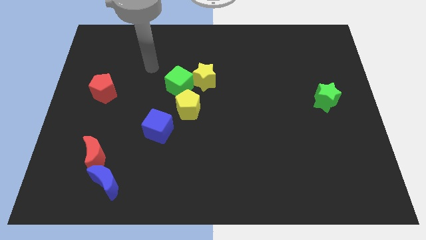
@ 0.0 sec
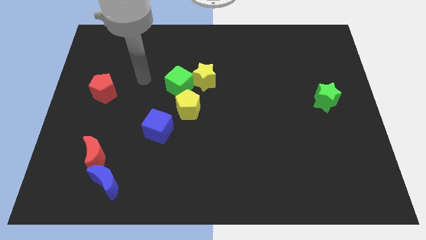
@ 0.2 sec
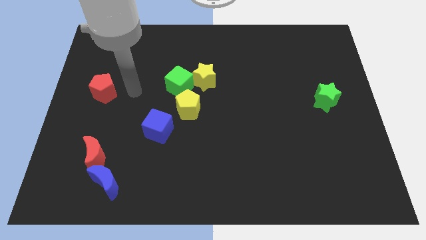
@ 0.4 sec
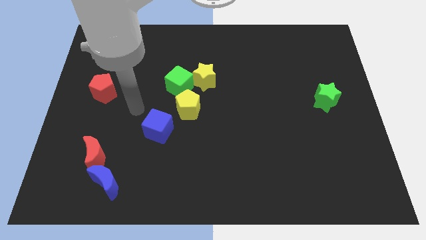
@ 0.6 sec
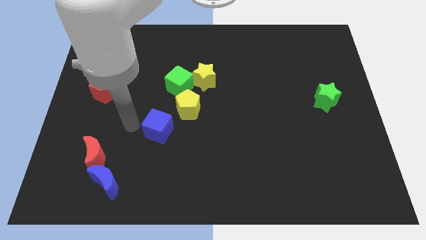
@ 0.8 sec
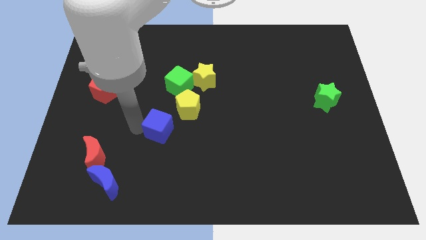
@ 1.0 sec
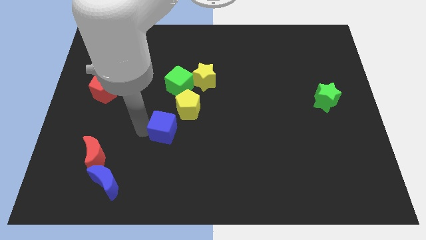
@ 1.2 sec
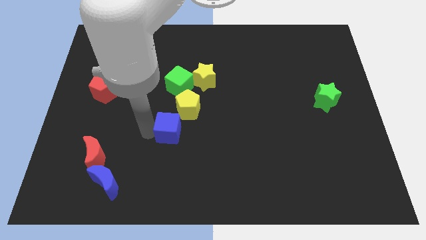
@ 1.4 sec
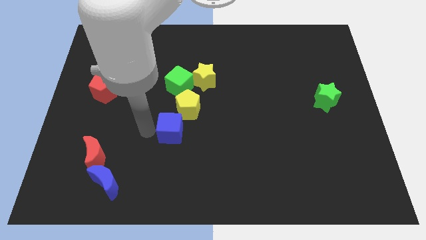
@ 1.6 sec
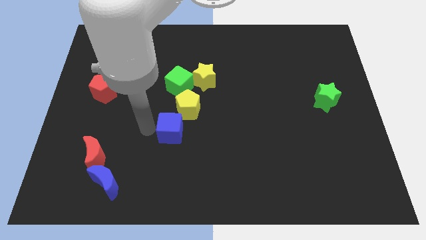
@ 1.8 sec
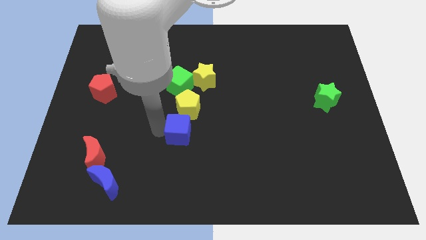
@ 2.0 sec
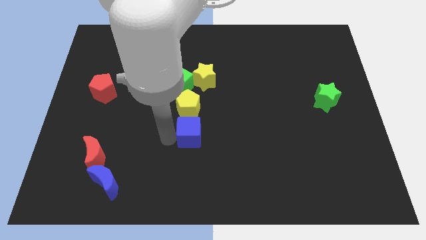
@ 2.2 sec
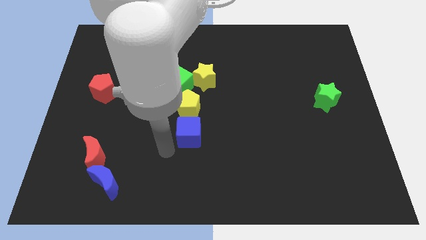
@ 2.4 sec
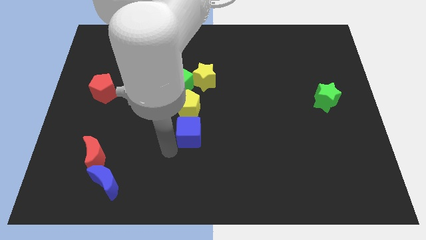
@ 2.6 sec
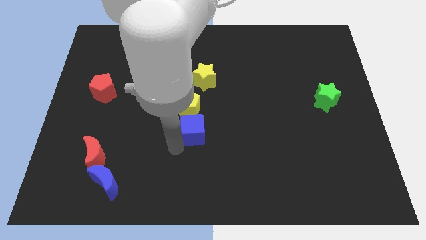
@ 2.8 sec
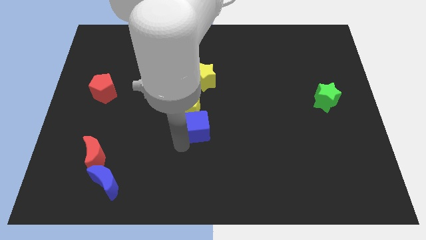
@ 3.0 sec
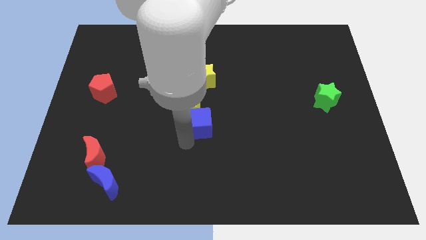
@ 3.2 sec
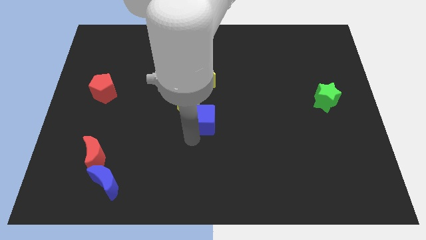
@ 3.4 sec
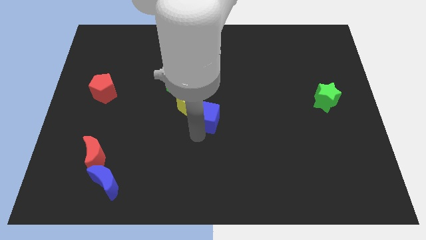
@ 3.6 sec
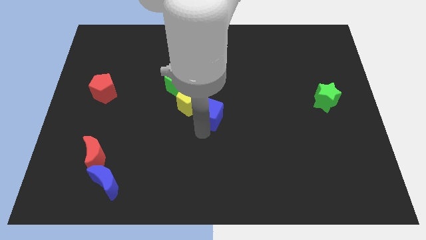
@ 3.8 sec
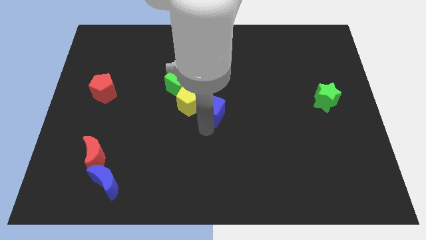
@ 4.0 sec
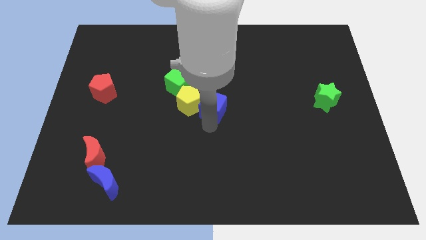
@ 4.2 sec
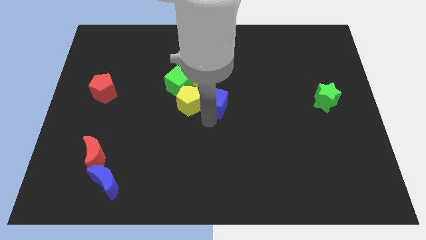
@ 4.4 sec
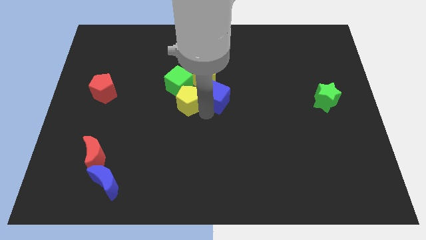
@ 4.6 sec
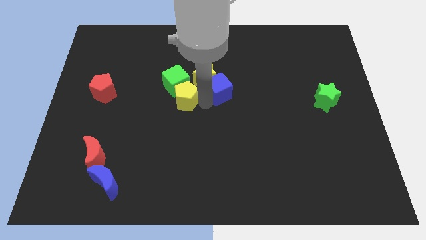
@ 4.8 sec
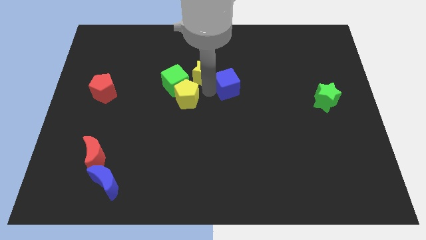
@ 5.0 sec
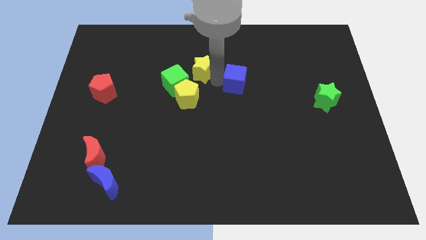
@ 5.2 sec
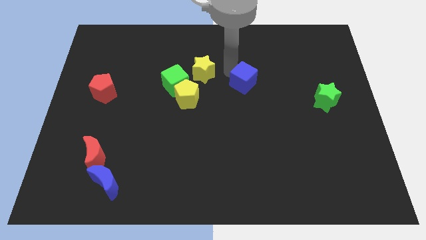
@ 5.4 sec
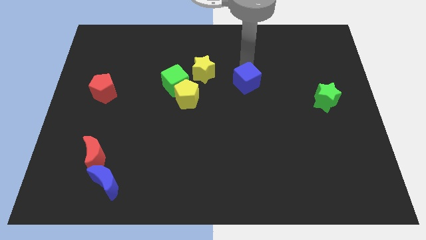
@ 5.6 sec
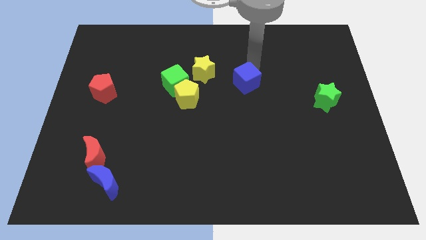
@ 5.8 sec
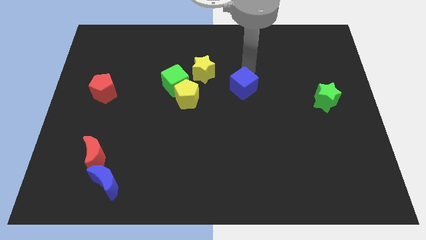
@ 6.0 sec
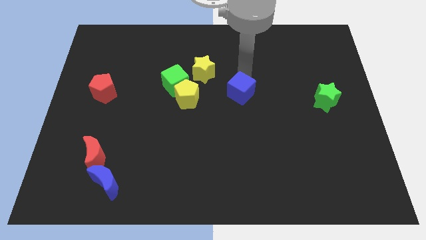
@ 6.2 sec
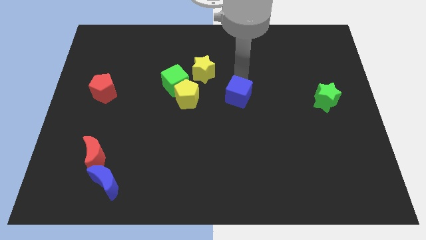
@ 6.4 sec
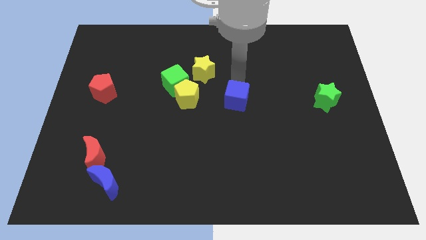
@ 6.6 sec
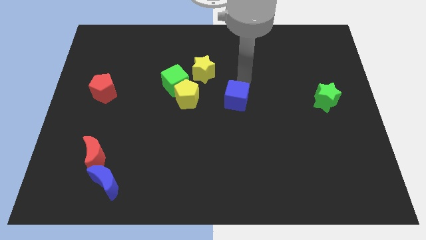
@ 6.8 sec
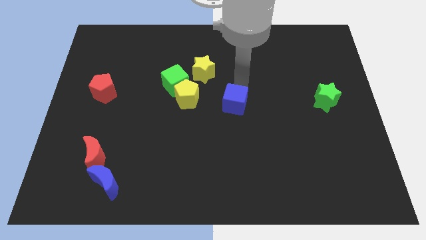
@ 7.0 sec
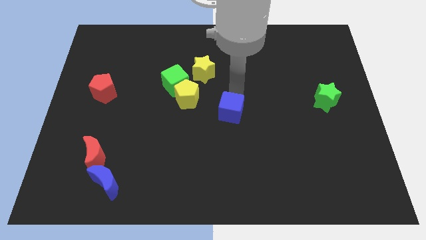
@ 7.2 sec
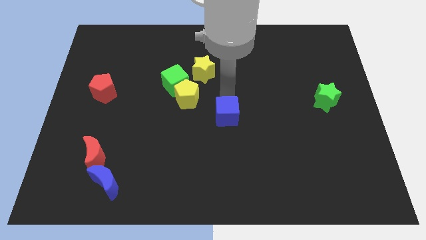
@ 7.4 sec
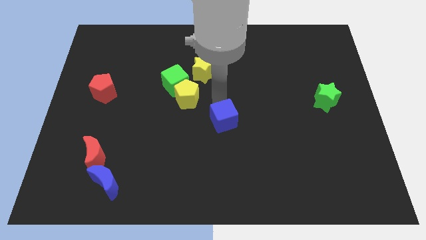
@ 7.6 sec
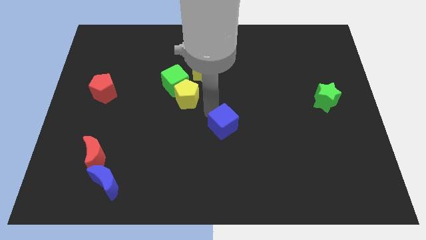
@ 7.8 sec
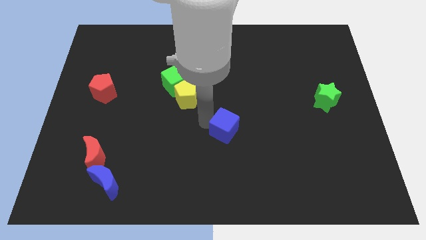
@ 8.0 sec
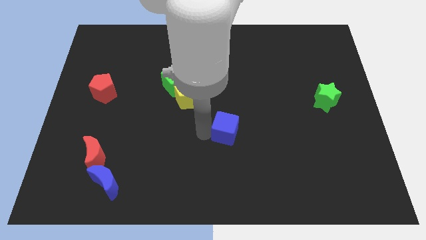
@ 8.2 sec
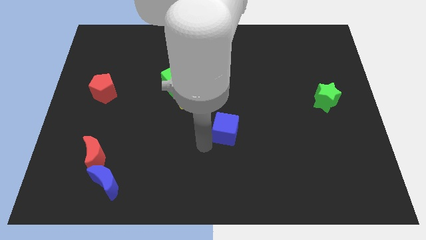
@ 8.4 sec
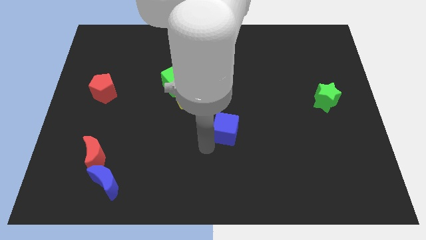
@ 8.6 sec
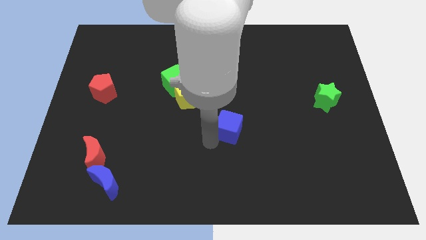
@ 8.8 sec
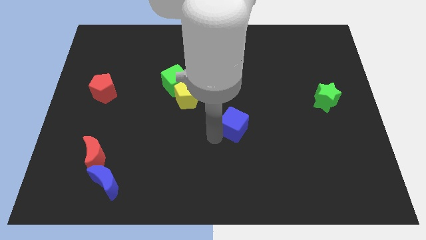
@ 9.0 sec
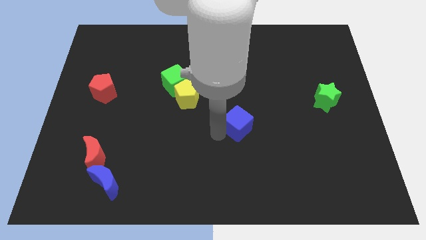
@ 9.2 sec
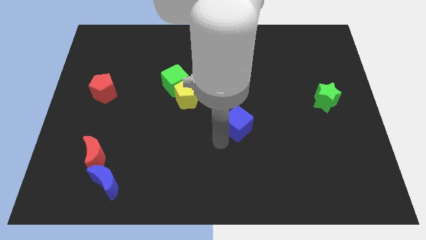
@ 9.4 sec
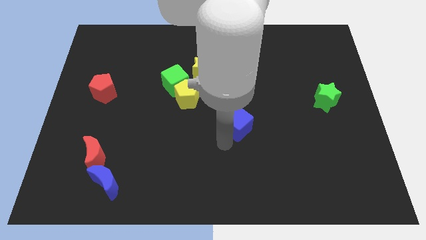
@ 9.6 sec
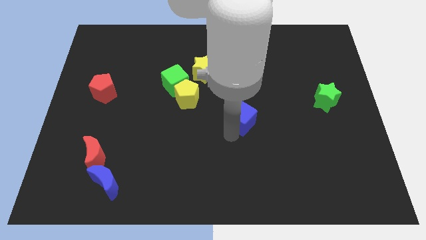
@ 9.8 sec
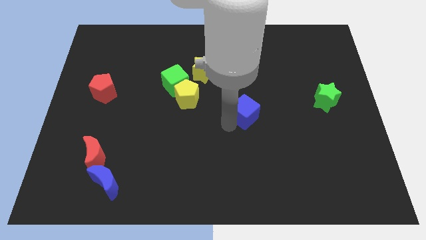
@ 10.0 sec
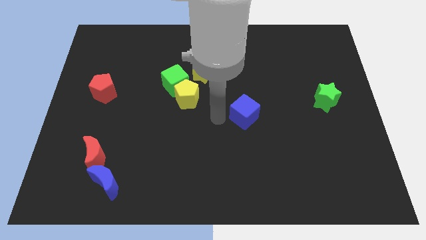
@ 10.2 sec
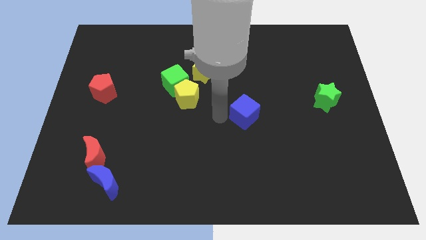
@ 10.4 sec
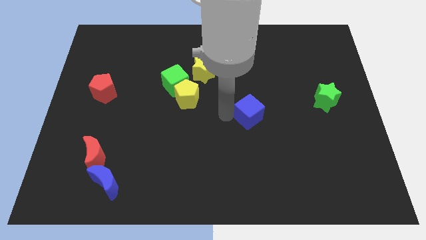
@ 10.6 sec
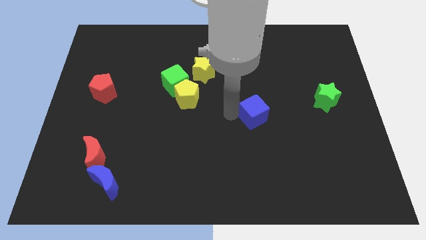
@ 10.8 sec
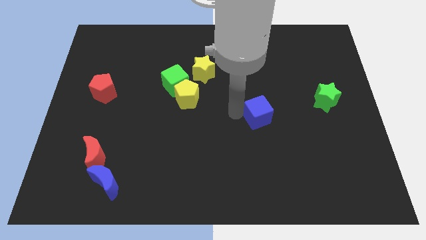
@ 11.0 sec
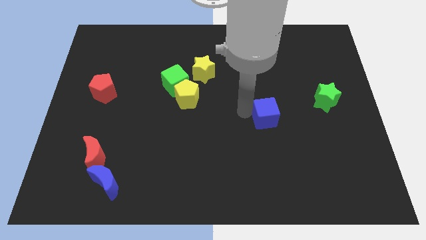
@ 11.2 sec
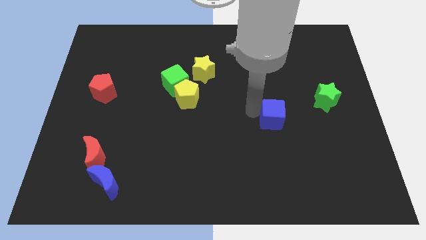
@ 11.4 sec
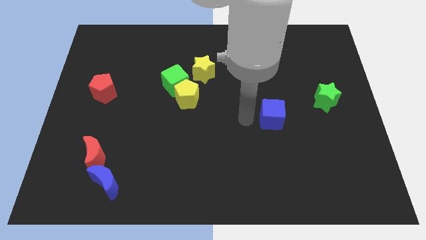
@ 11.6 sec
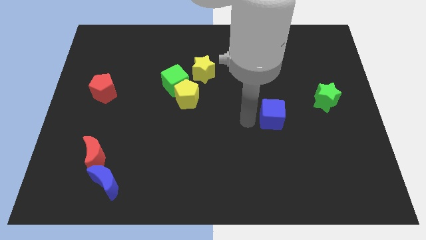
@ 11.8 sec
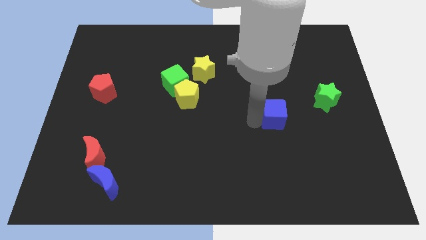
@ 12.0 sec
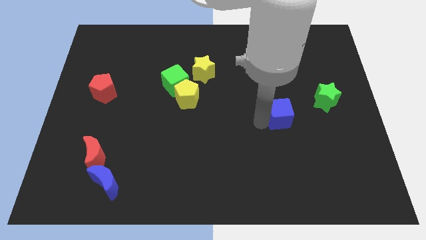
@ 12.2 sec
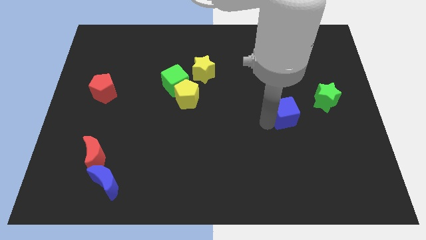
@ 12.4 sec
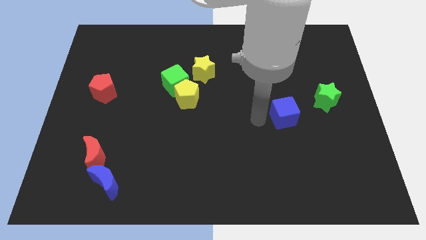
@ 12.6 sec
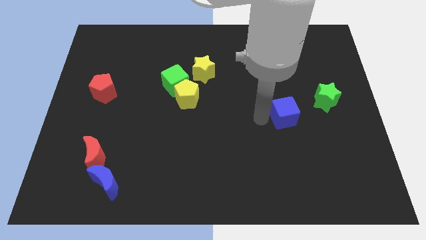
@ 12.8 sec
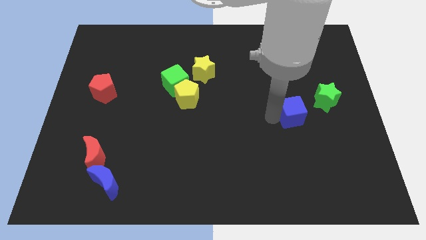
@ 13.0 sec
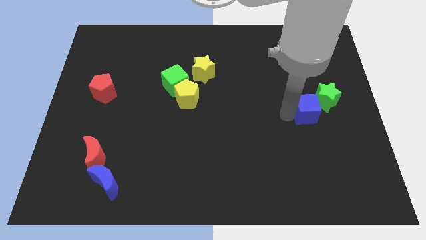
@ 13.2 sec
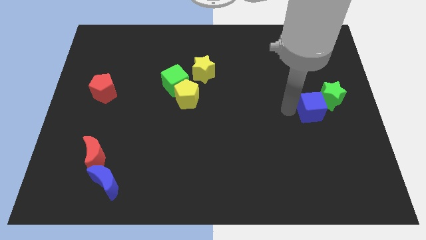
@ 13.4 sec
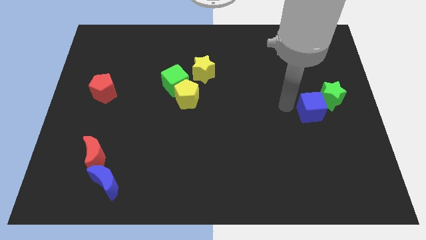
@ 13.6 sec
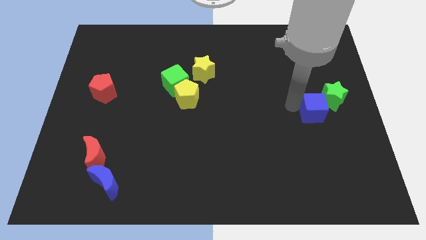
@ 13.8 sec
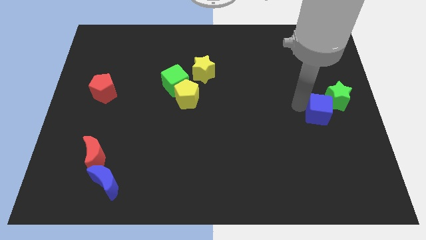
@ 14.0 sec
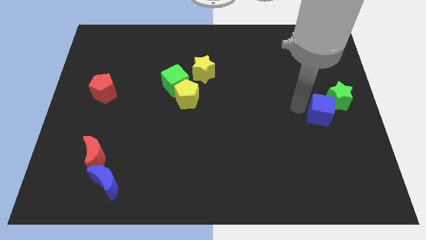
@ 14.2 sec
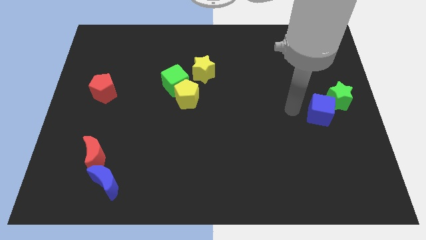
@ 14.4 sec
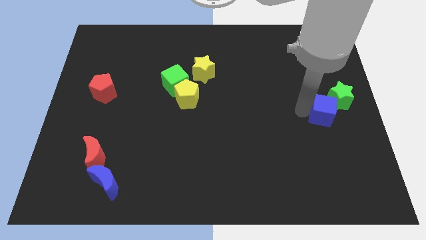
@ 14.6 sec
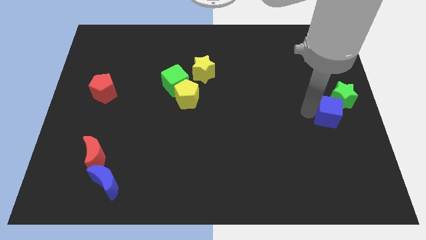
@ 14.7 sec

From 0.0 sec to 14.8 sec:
move the blue cube to the center right
